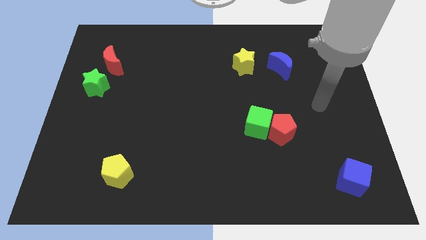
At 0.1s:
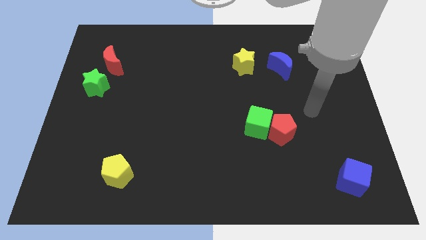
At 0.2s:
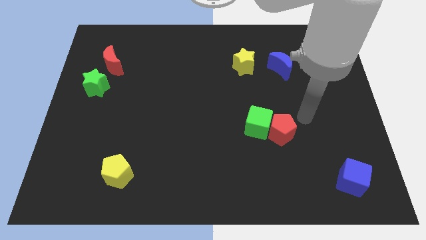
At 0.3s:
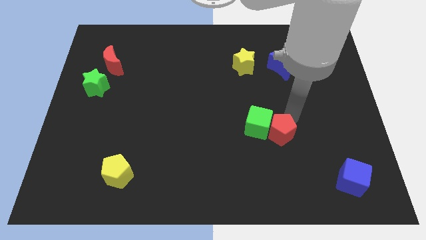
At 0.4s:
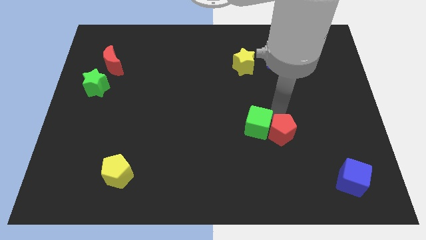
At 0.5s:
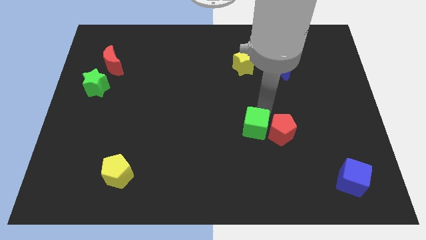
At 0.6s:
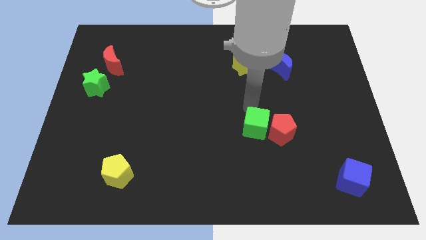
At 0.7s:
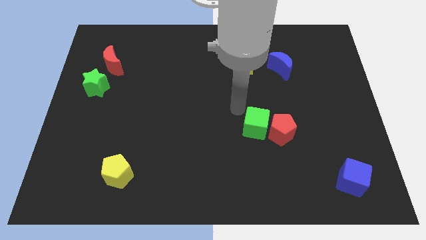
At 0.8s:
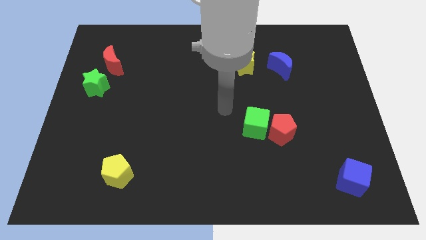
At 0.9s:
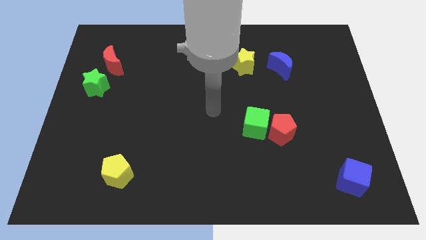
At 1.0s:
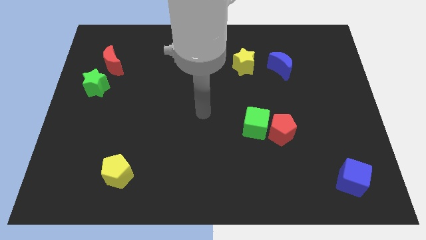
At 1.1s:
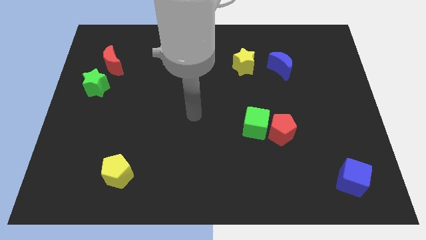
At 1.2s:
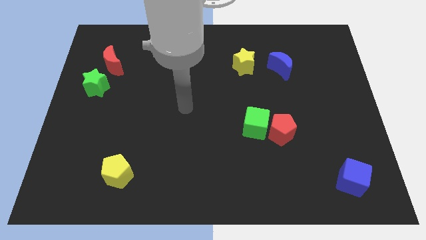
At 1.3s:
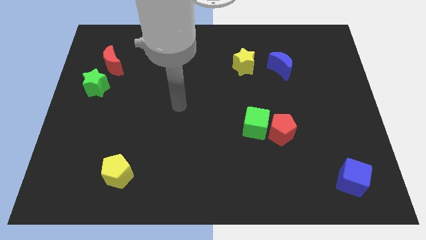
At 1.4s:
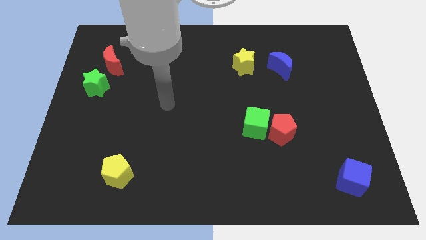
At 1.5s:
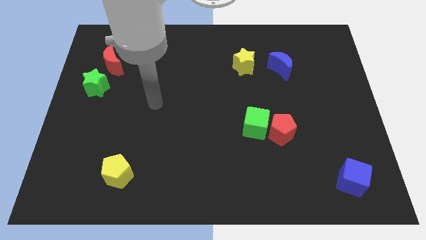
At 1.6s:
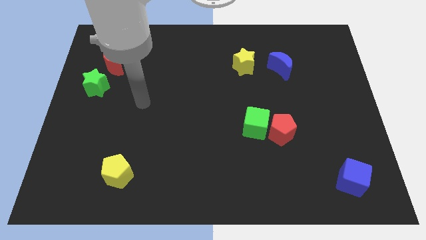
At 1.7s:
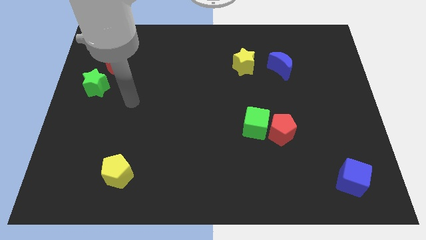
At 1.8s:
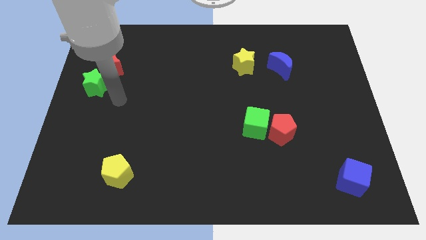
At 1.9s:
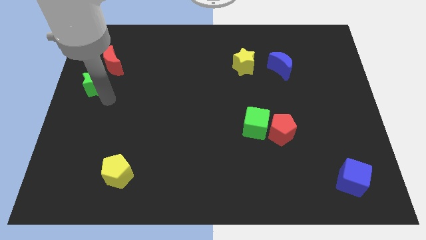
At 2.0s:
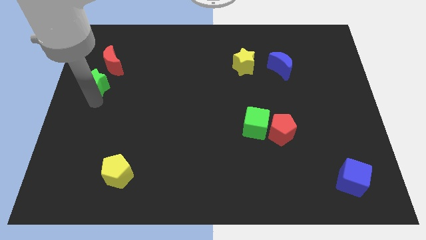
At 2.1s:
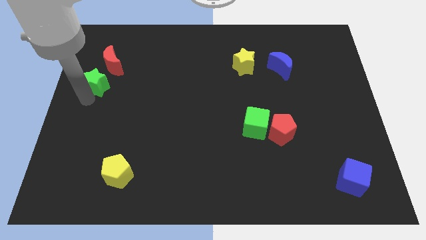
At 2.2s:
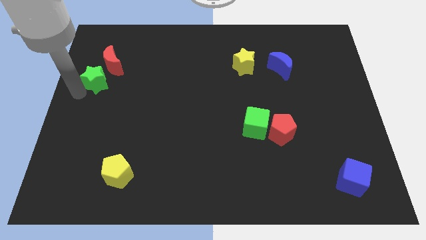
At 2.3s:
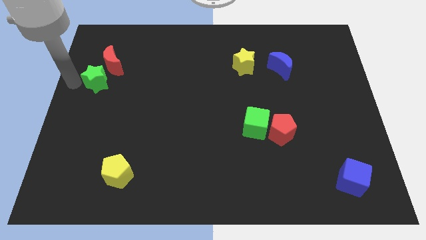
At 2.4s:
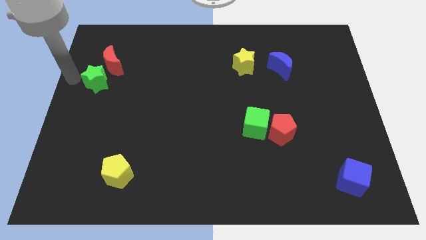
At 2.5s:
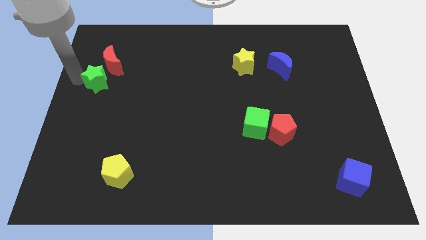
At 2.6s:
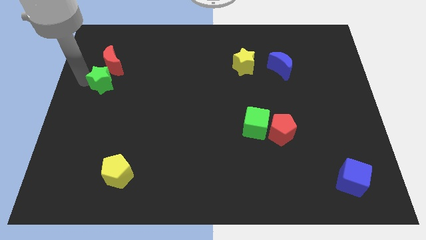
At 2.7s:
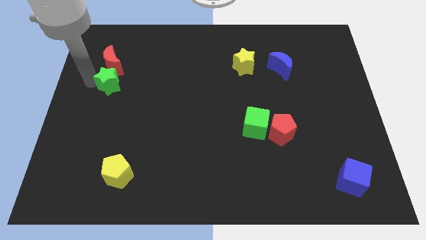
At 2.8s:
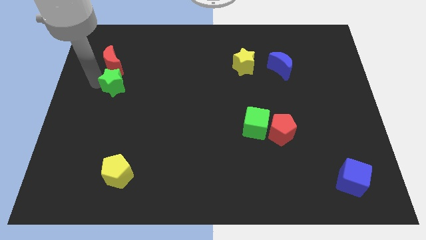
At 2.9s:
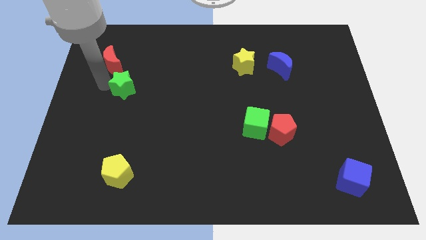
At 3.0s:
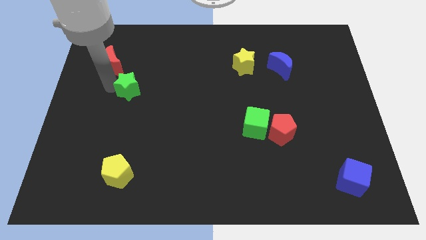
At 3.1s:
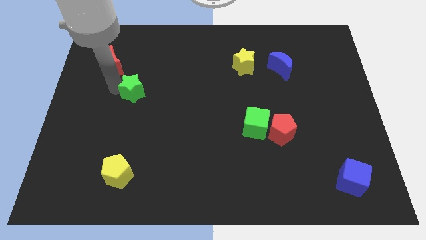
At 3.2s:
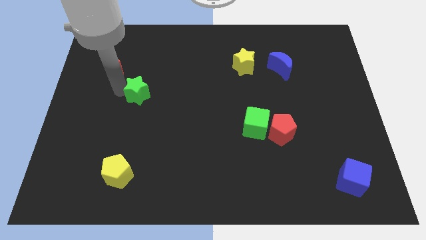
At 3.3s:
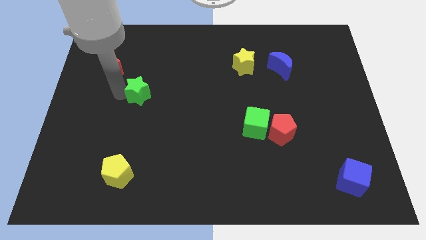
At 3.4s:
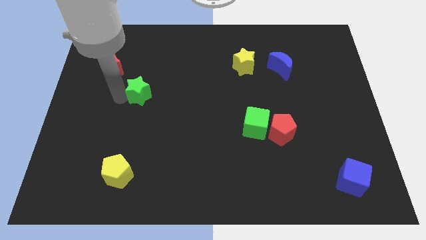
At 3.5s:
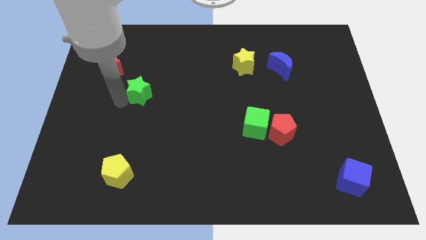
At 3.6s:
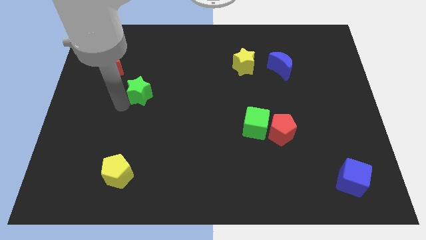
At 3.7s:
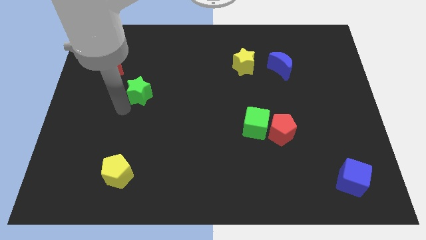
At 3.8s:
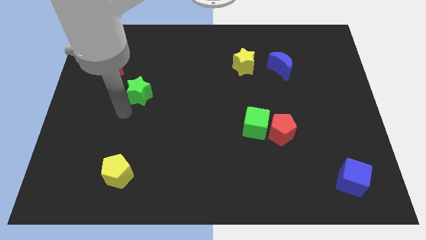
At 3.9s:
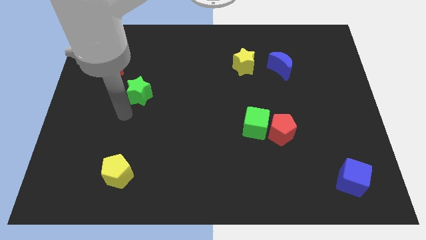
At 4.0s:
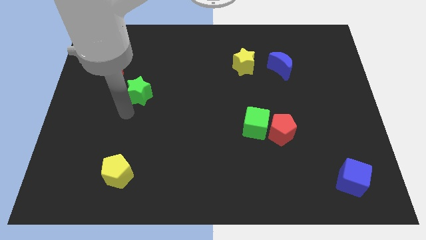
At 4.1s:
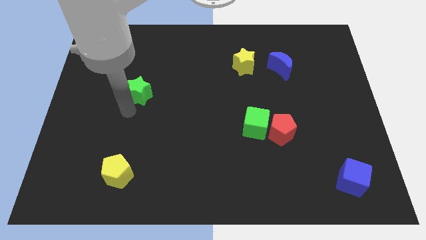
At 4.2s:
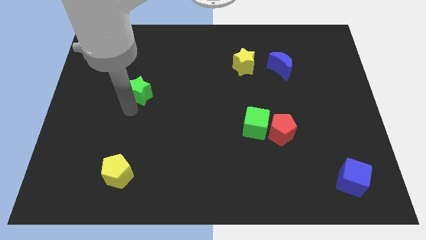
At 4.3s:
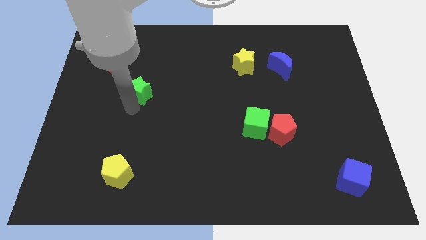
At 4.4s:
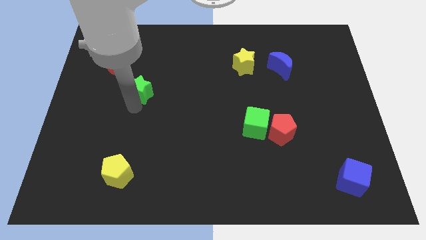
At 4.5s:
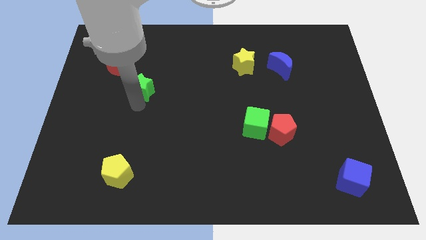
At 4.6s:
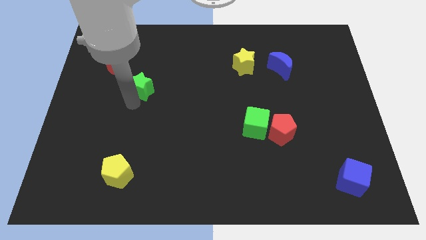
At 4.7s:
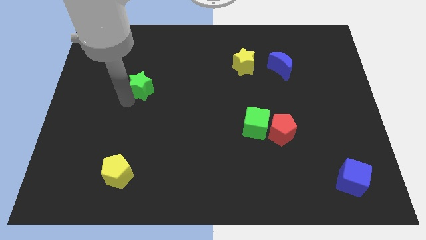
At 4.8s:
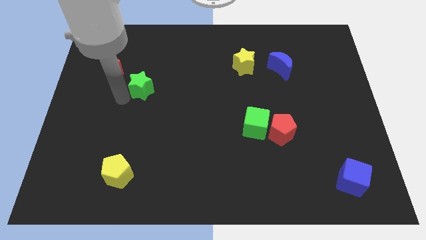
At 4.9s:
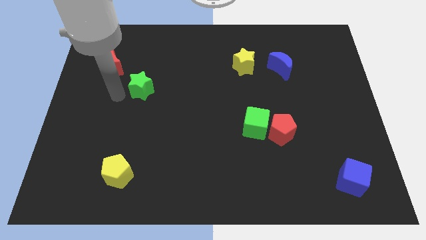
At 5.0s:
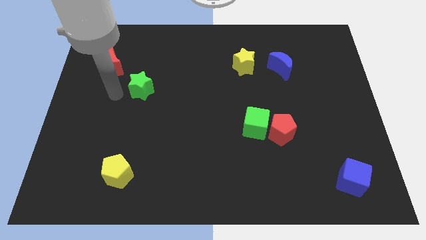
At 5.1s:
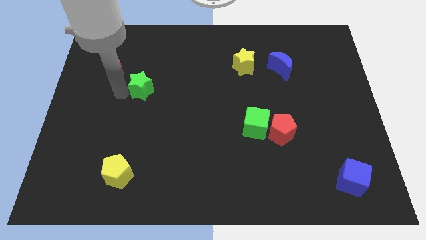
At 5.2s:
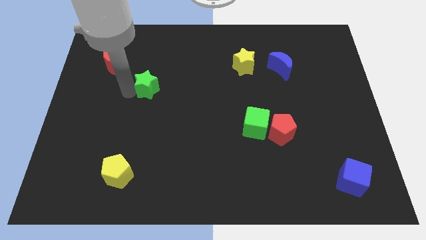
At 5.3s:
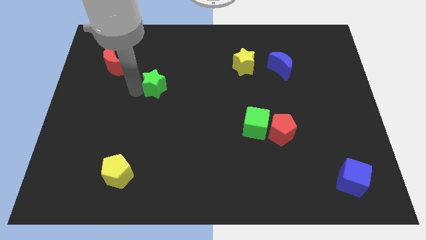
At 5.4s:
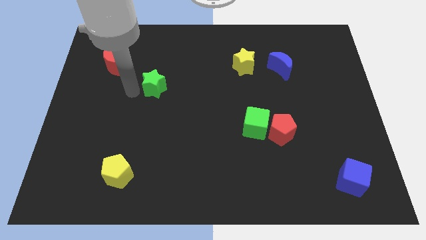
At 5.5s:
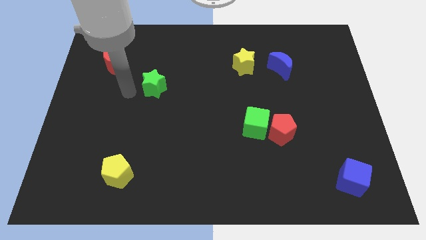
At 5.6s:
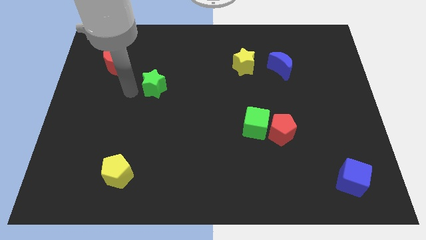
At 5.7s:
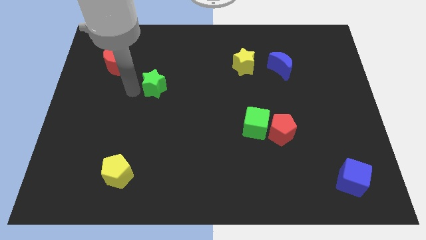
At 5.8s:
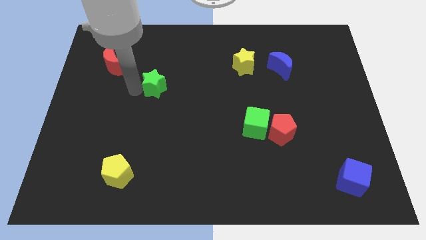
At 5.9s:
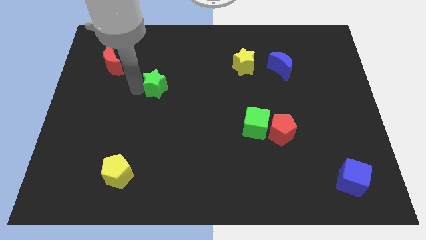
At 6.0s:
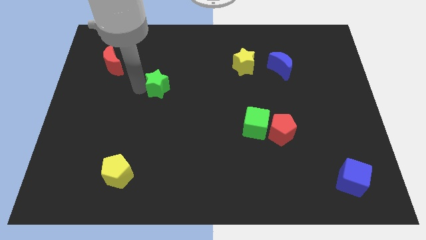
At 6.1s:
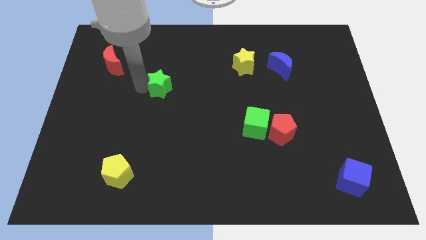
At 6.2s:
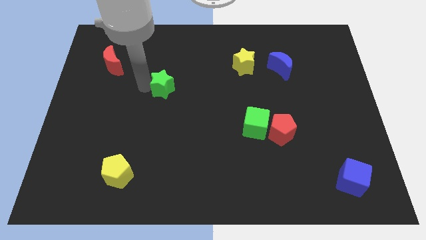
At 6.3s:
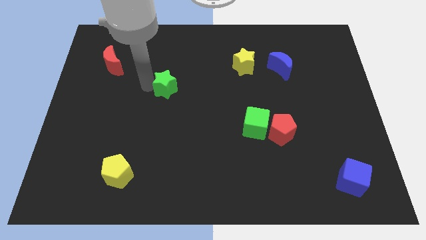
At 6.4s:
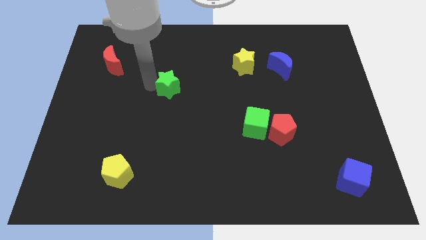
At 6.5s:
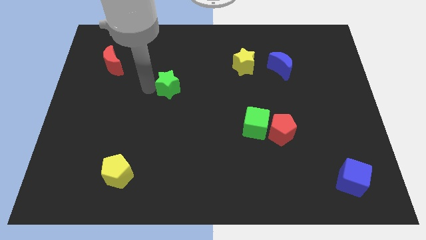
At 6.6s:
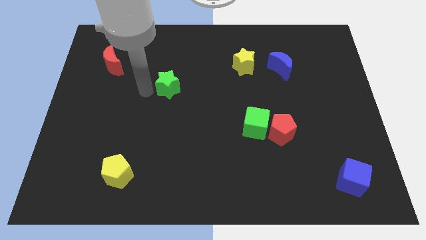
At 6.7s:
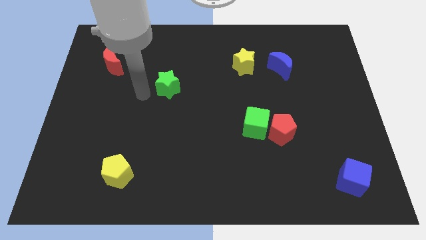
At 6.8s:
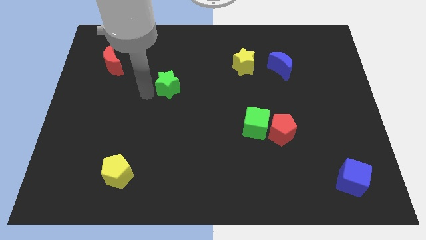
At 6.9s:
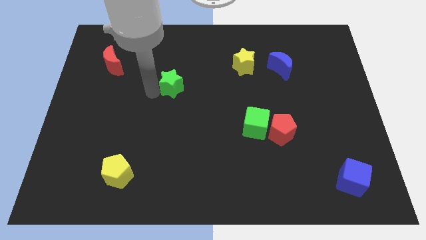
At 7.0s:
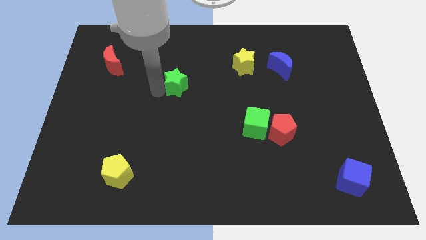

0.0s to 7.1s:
move the green star to the right
